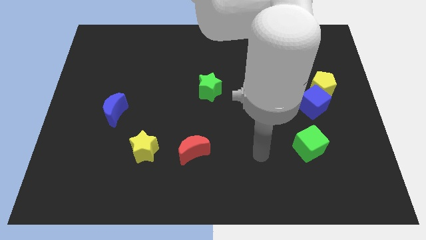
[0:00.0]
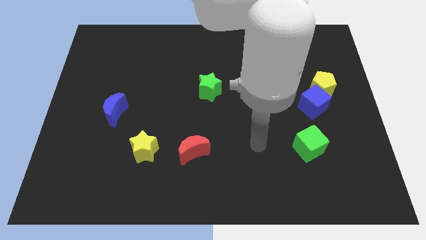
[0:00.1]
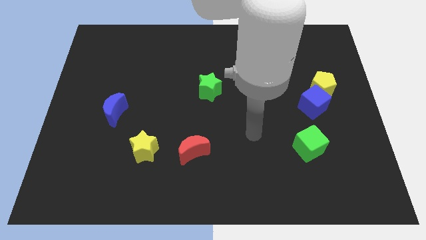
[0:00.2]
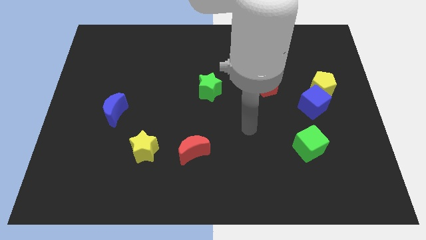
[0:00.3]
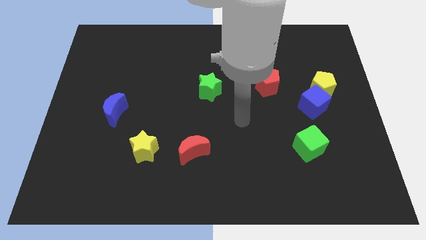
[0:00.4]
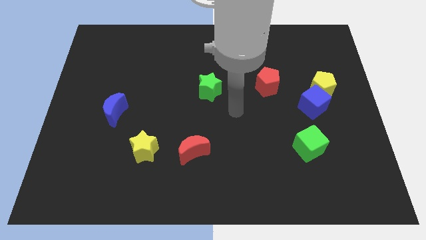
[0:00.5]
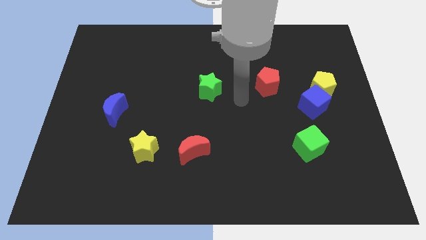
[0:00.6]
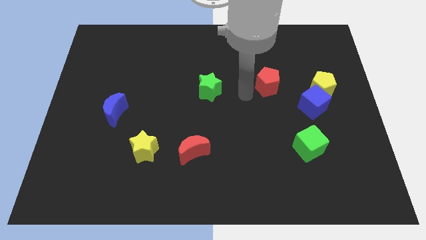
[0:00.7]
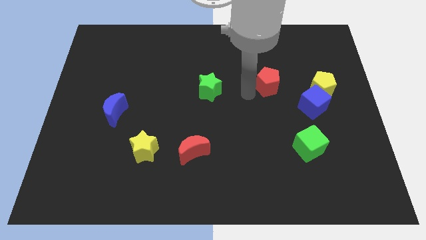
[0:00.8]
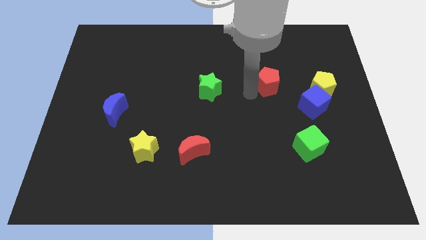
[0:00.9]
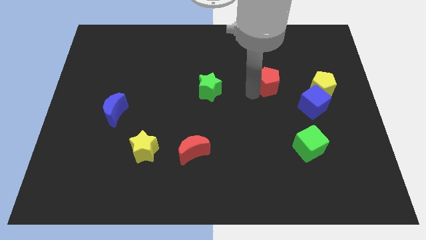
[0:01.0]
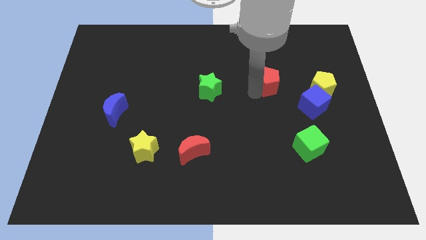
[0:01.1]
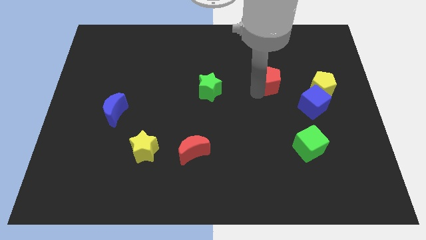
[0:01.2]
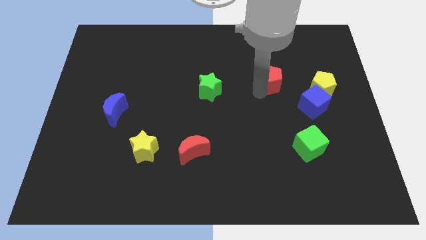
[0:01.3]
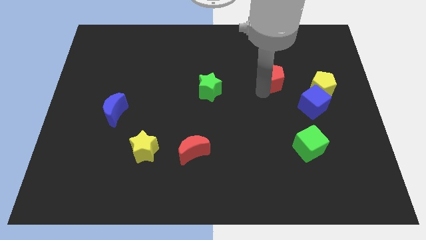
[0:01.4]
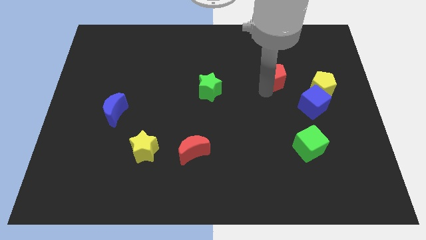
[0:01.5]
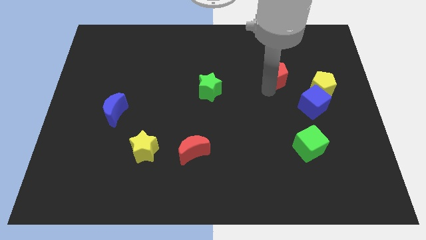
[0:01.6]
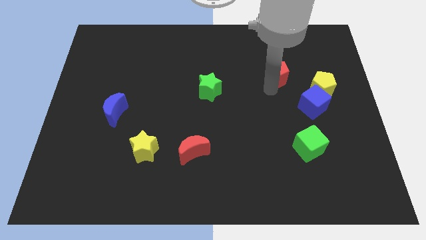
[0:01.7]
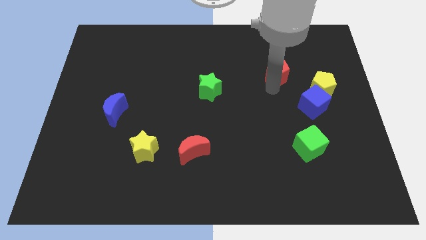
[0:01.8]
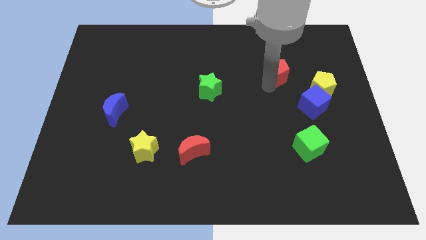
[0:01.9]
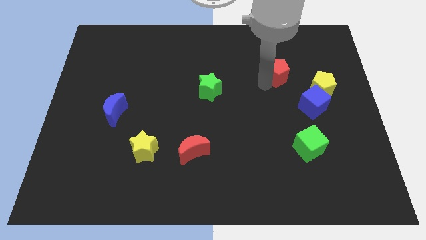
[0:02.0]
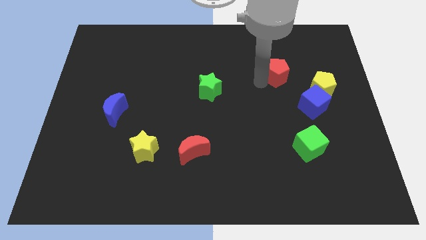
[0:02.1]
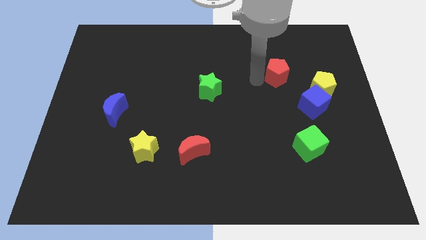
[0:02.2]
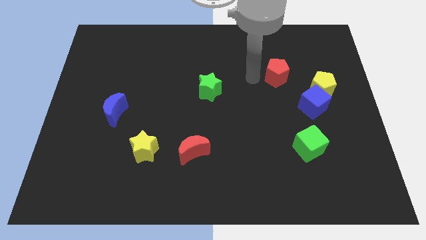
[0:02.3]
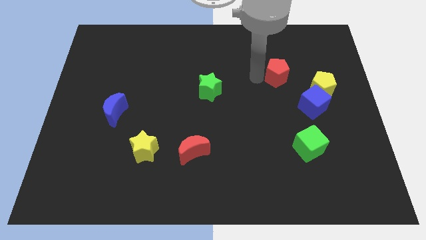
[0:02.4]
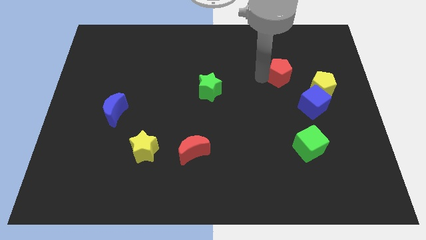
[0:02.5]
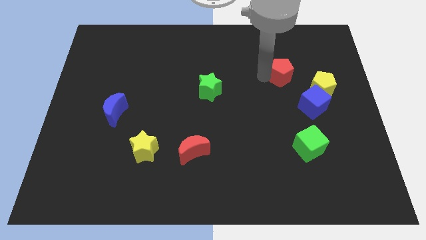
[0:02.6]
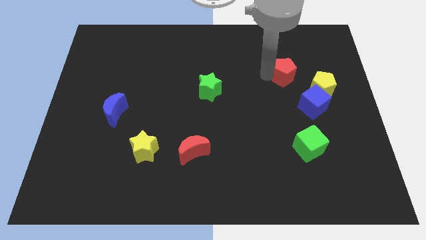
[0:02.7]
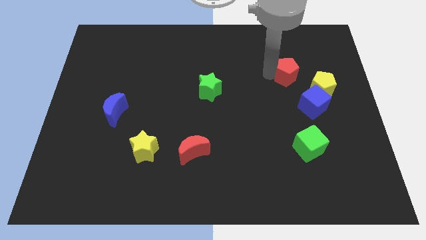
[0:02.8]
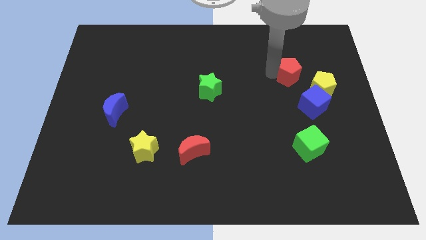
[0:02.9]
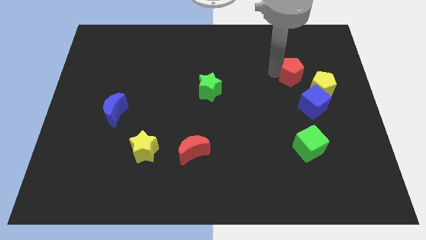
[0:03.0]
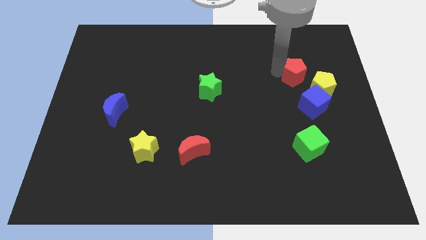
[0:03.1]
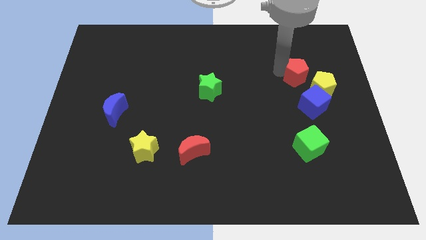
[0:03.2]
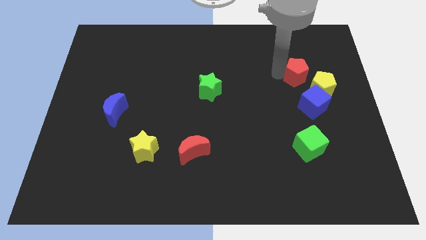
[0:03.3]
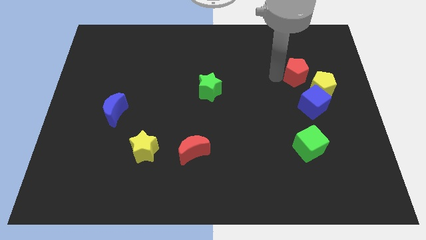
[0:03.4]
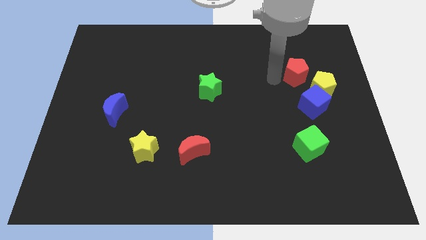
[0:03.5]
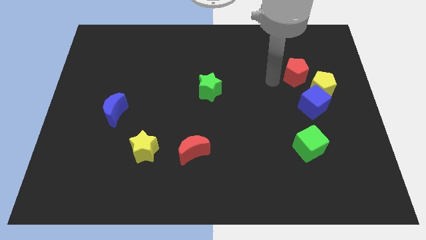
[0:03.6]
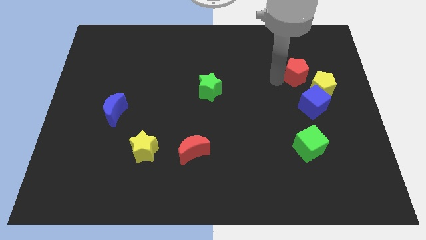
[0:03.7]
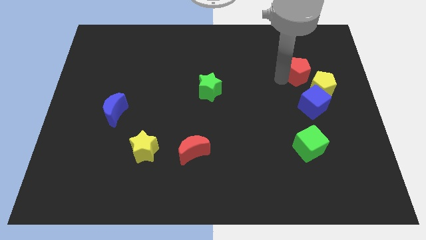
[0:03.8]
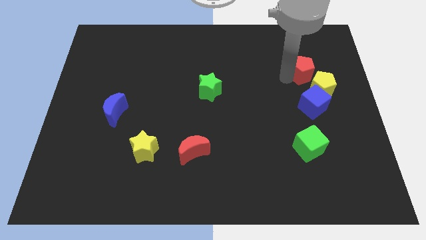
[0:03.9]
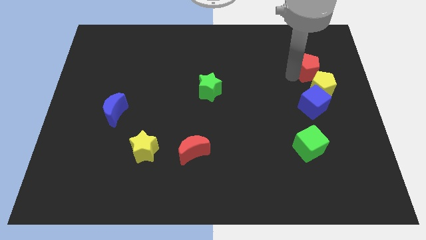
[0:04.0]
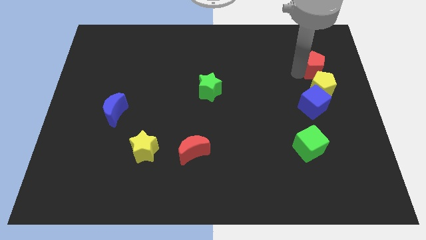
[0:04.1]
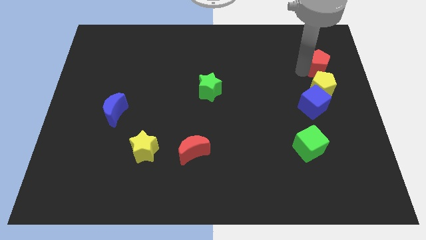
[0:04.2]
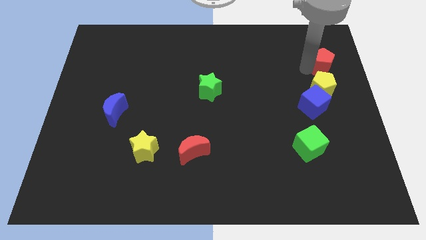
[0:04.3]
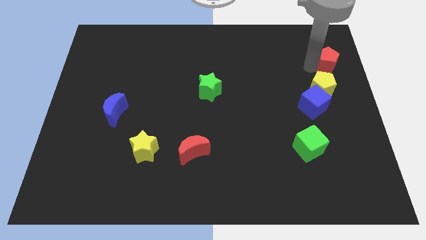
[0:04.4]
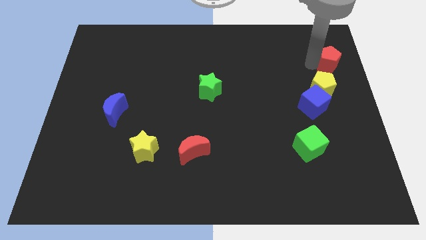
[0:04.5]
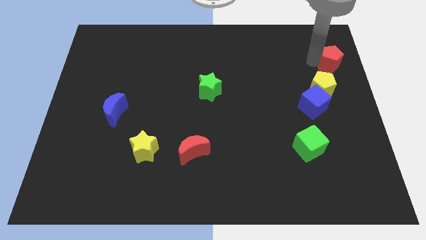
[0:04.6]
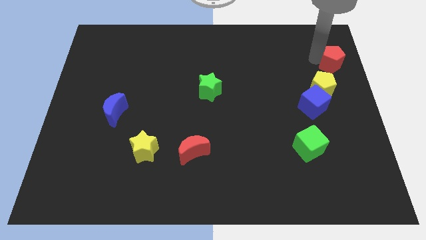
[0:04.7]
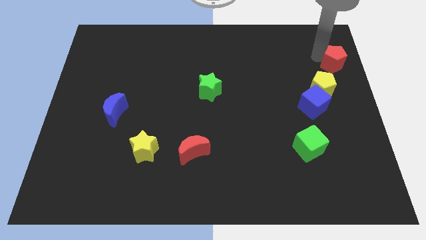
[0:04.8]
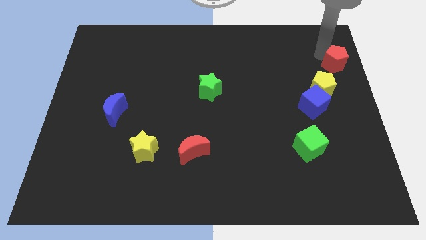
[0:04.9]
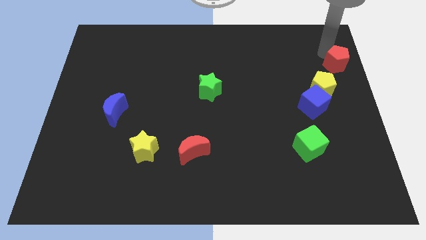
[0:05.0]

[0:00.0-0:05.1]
move the red pentagon to the right side of the board

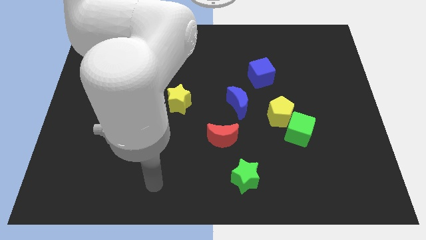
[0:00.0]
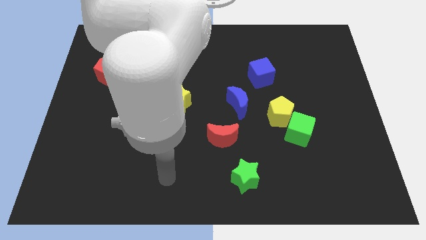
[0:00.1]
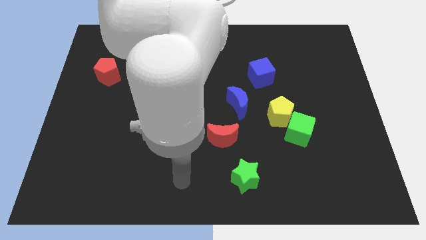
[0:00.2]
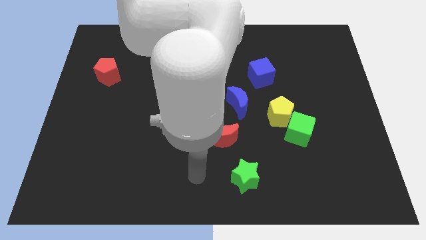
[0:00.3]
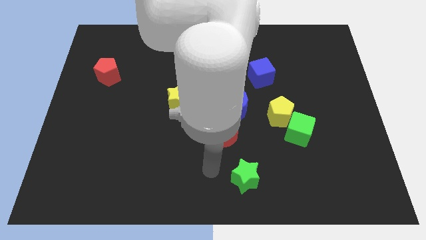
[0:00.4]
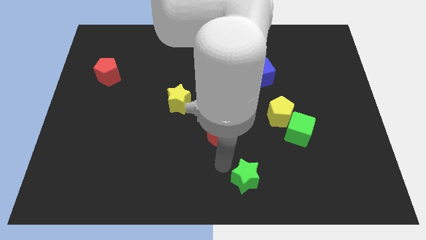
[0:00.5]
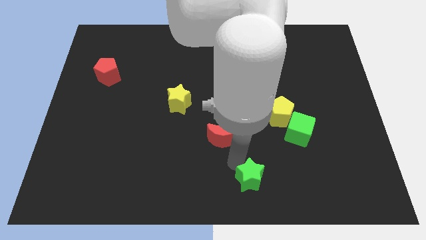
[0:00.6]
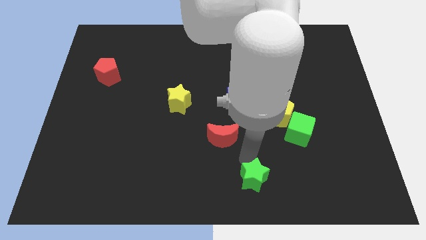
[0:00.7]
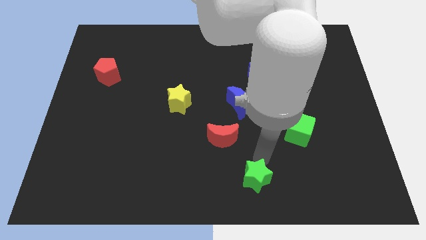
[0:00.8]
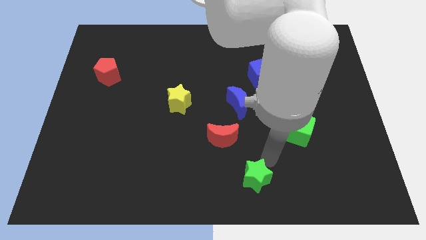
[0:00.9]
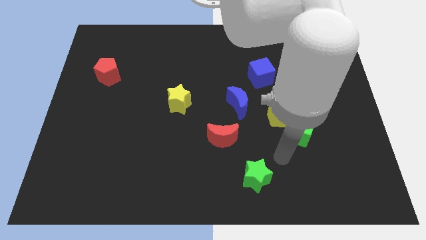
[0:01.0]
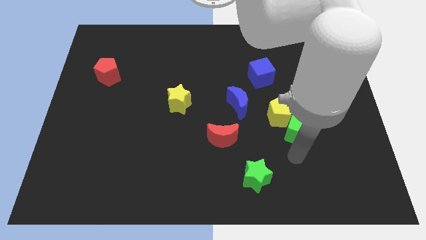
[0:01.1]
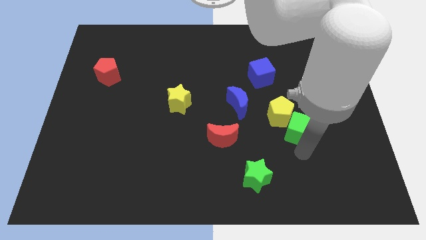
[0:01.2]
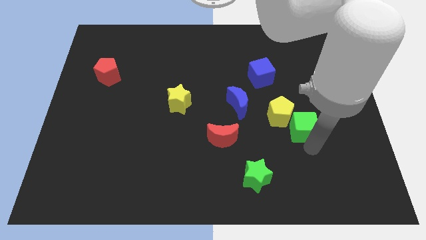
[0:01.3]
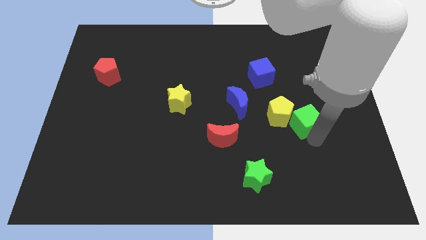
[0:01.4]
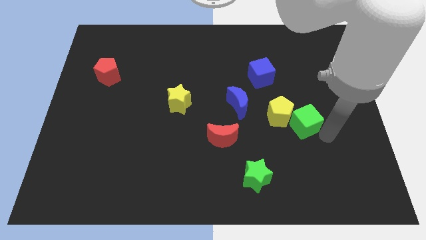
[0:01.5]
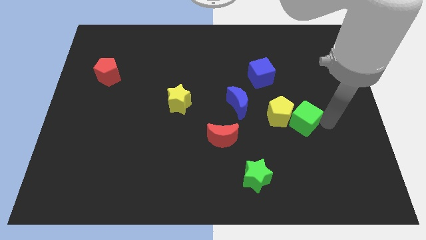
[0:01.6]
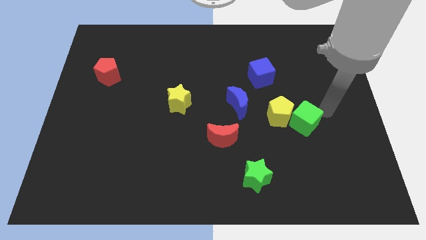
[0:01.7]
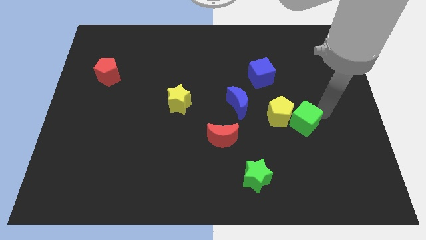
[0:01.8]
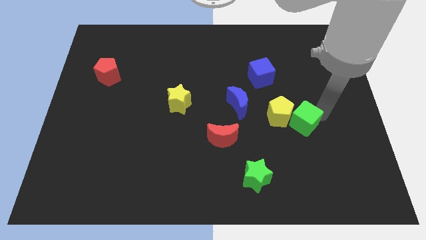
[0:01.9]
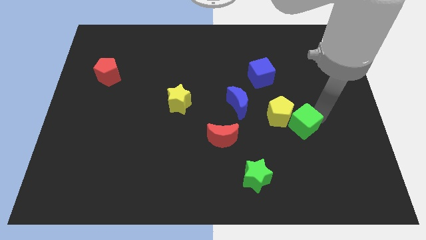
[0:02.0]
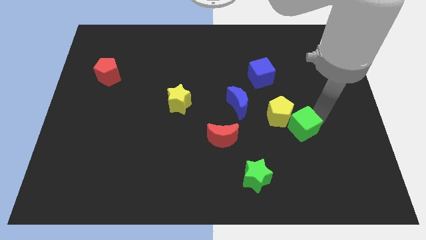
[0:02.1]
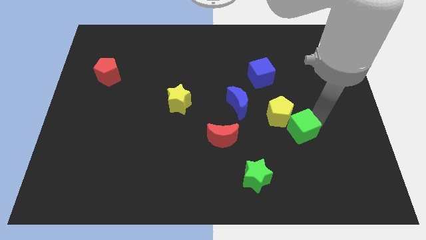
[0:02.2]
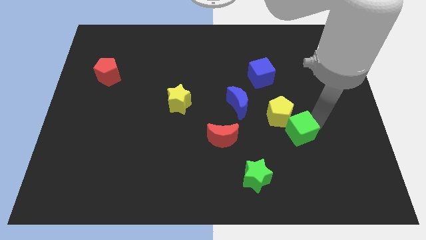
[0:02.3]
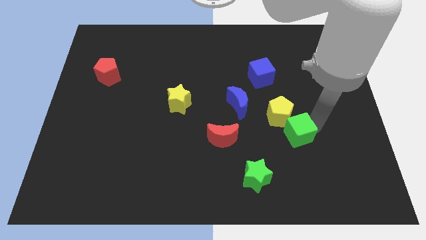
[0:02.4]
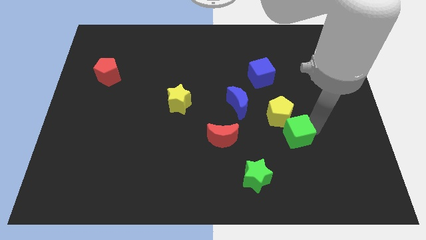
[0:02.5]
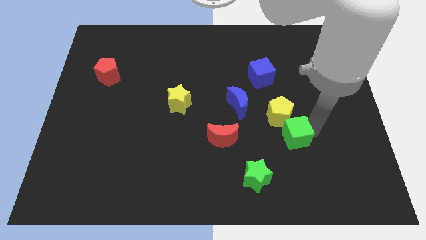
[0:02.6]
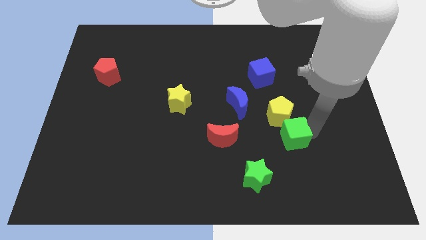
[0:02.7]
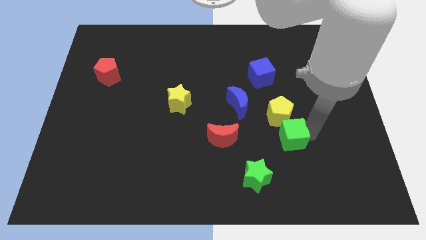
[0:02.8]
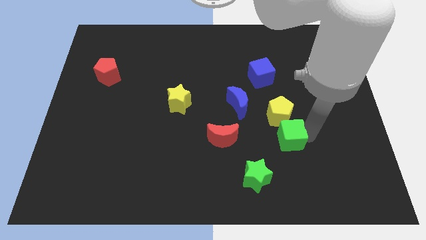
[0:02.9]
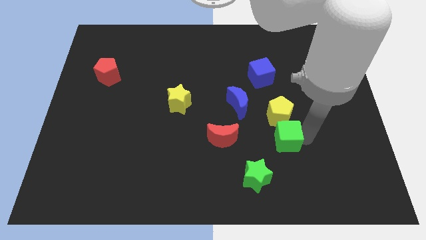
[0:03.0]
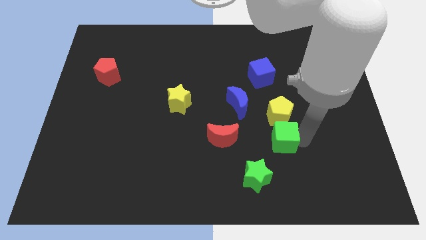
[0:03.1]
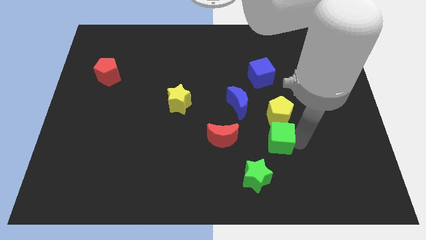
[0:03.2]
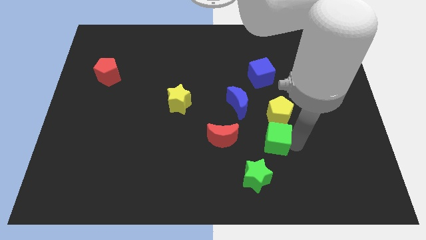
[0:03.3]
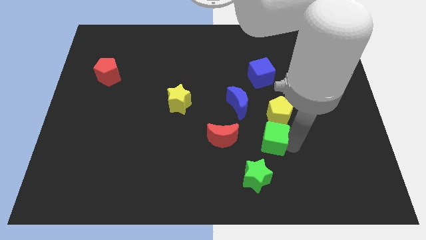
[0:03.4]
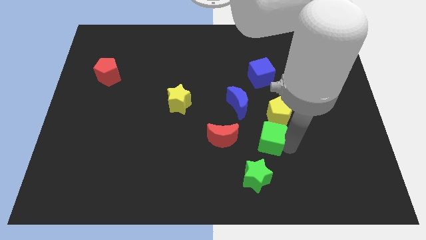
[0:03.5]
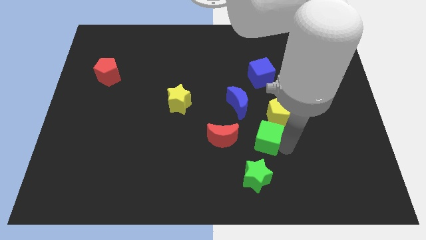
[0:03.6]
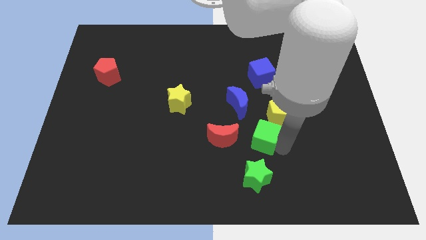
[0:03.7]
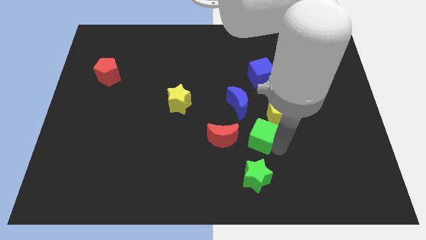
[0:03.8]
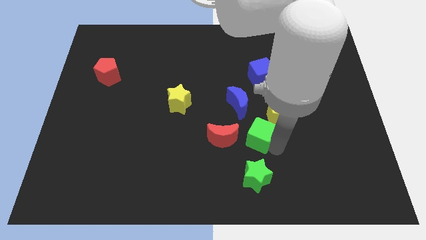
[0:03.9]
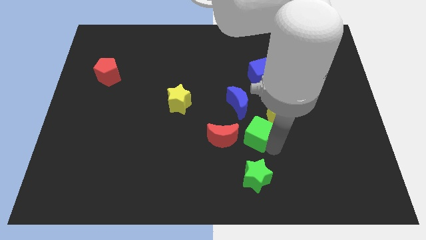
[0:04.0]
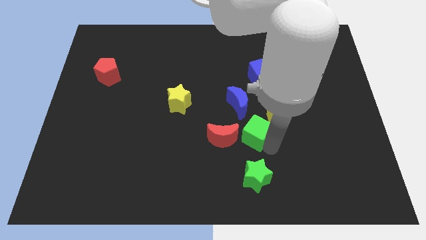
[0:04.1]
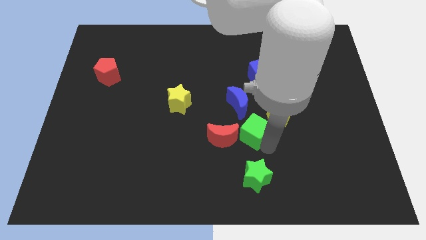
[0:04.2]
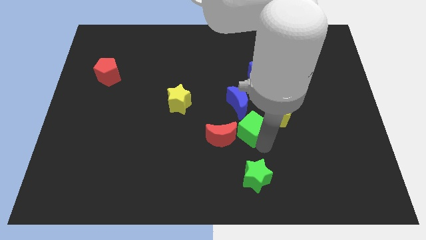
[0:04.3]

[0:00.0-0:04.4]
put the green cube to the middle of the board
